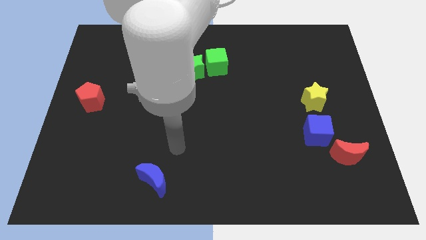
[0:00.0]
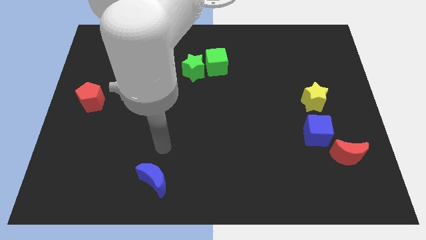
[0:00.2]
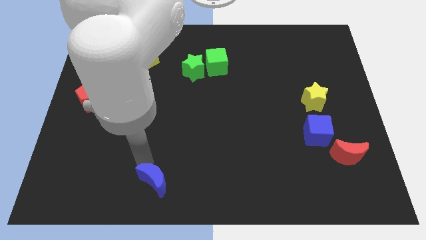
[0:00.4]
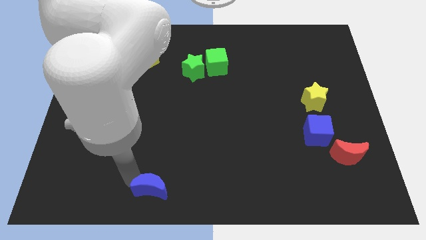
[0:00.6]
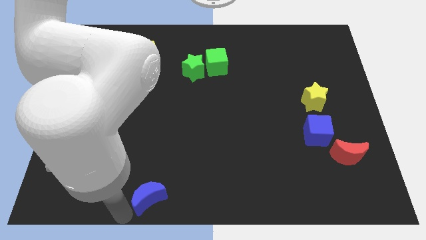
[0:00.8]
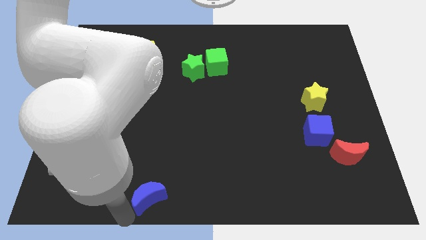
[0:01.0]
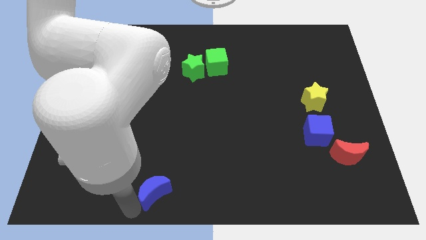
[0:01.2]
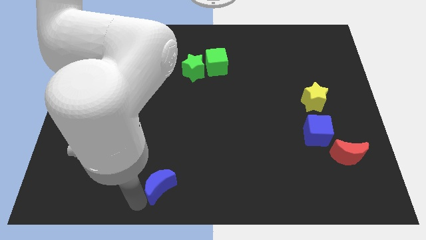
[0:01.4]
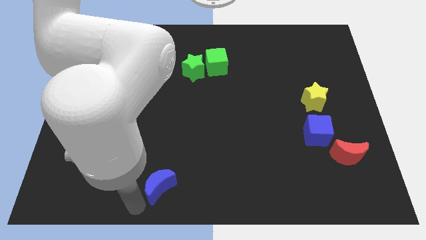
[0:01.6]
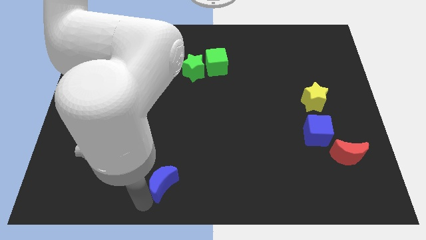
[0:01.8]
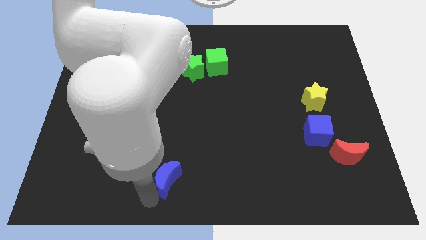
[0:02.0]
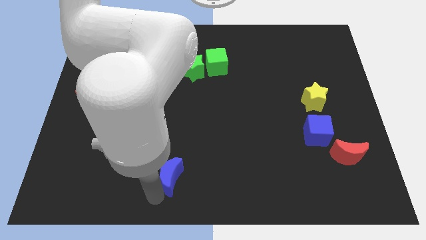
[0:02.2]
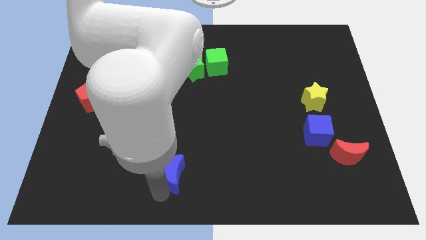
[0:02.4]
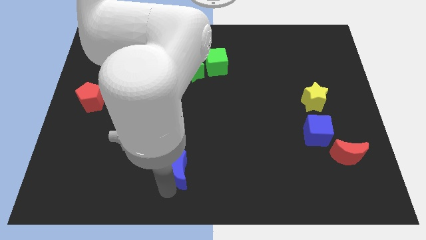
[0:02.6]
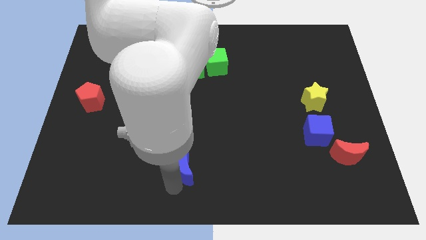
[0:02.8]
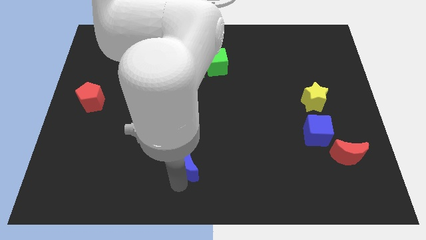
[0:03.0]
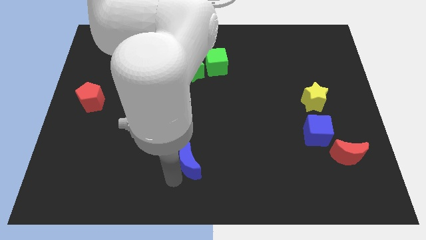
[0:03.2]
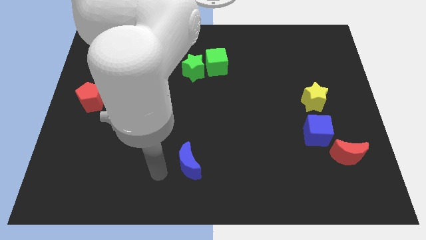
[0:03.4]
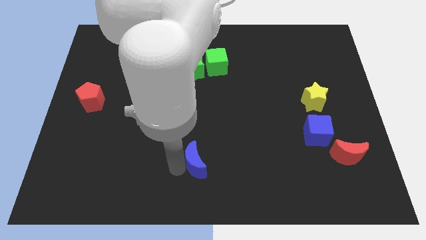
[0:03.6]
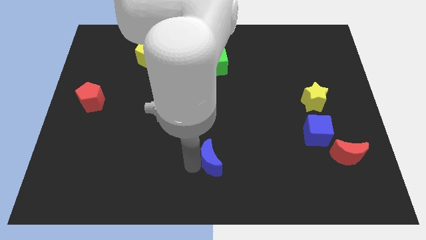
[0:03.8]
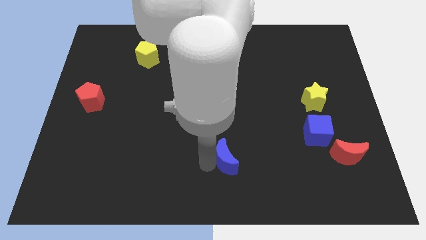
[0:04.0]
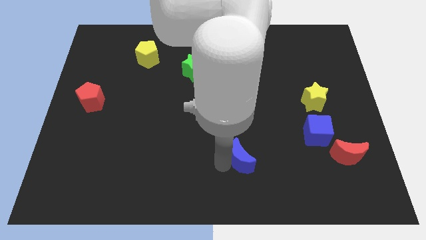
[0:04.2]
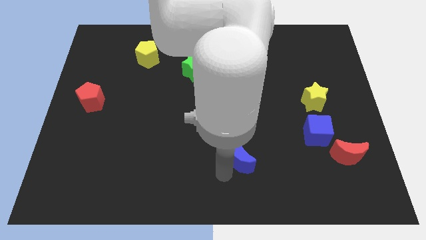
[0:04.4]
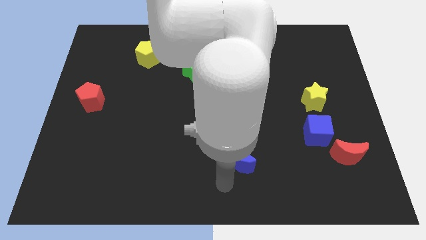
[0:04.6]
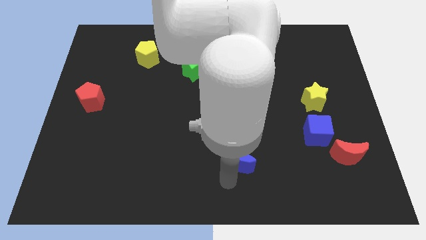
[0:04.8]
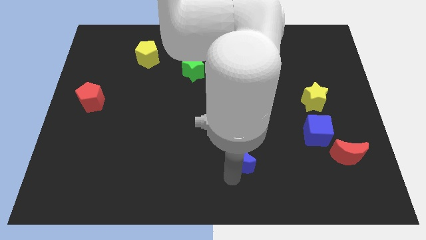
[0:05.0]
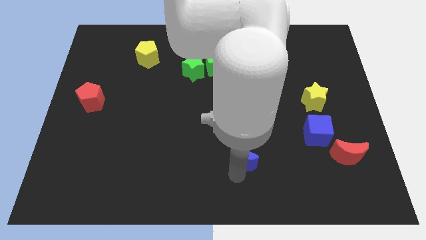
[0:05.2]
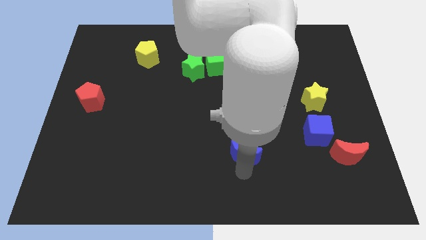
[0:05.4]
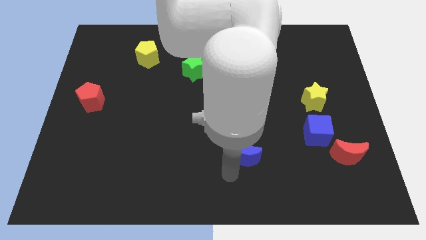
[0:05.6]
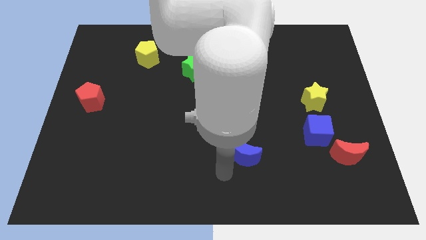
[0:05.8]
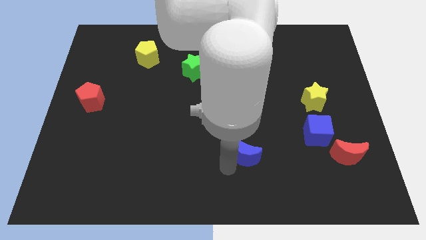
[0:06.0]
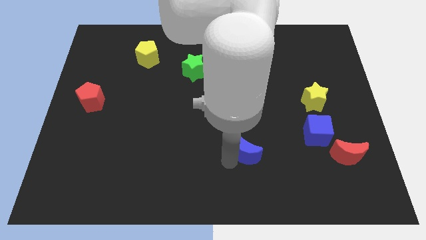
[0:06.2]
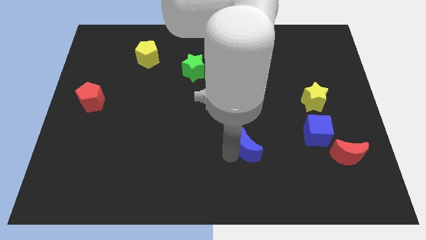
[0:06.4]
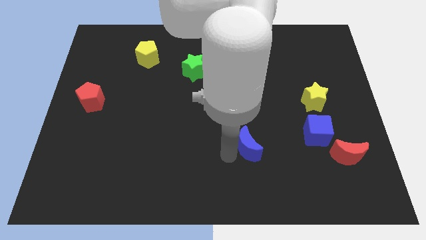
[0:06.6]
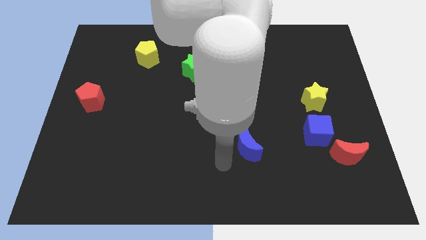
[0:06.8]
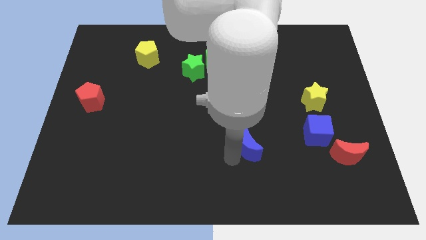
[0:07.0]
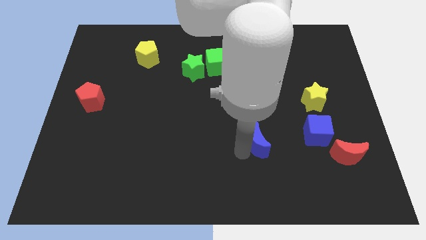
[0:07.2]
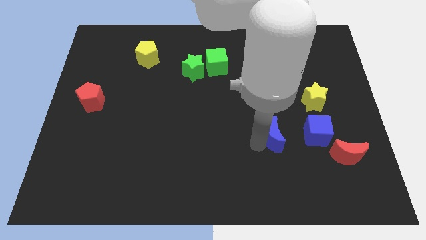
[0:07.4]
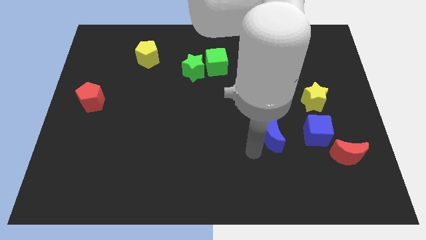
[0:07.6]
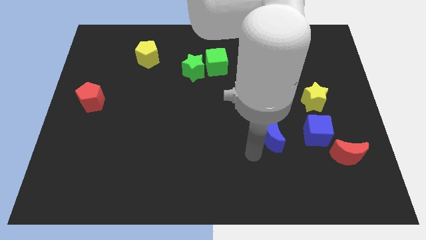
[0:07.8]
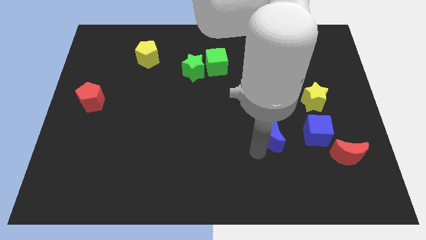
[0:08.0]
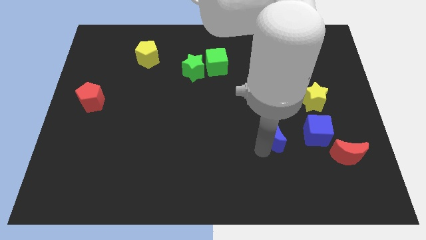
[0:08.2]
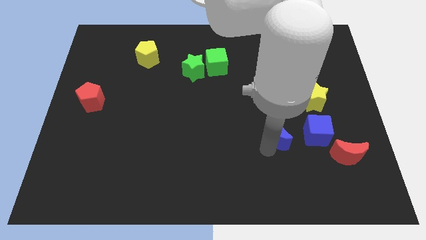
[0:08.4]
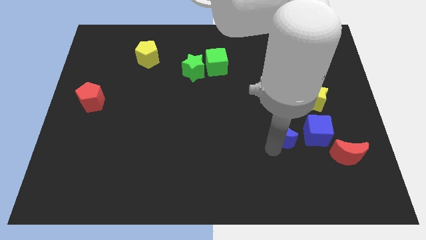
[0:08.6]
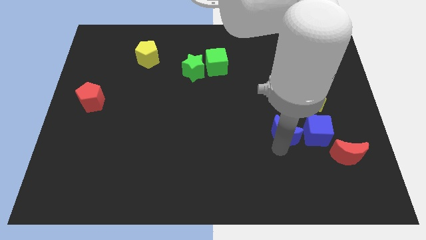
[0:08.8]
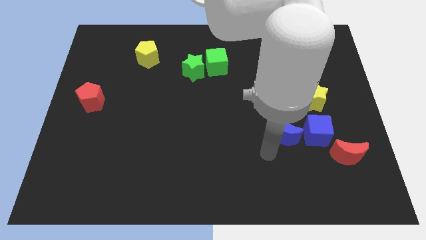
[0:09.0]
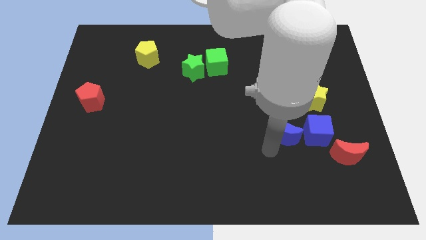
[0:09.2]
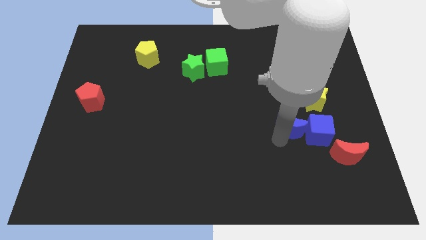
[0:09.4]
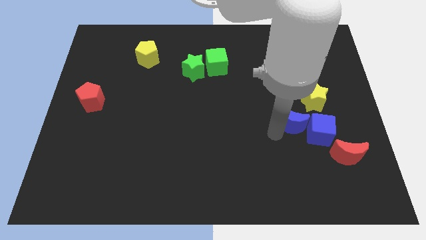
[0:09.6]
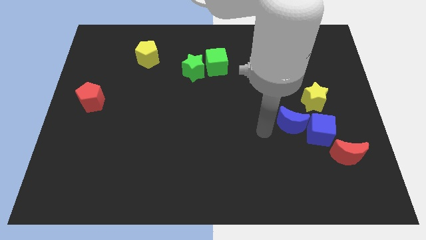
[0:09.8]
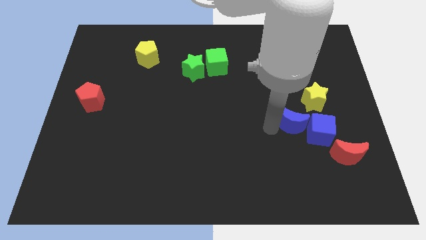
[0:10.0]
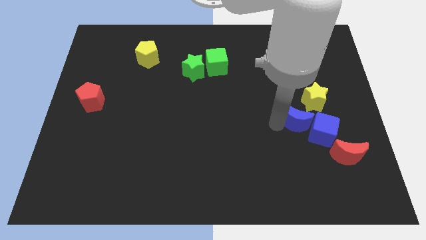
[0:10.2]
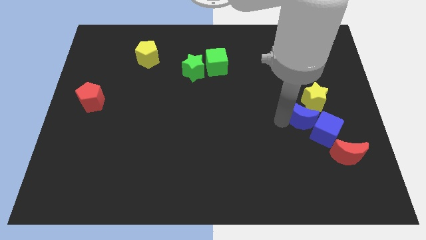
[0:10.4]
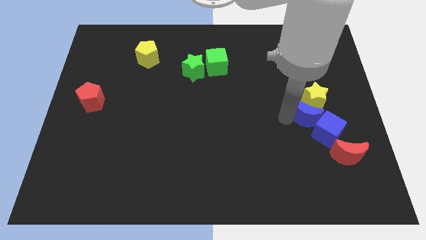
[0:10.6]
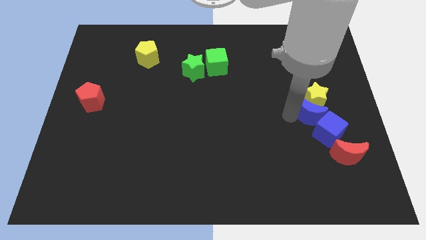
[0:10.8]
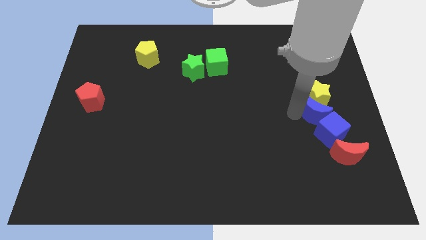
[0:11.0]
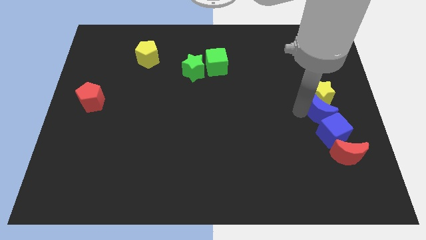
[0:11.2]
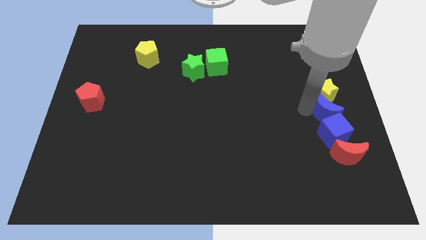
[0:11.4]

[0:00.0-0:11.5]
slide the blue moon to the center right

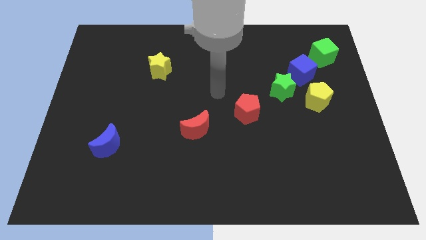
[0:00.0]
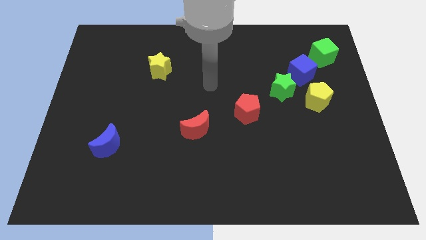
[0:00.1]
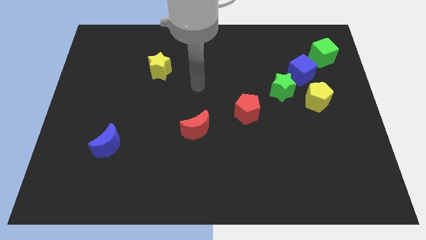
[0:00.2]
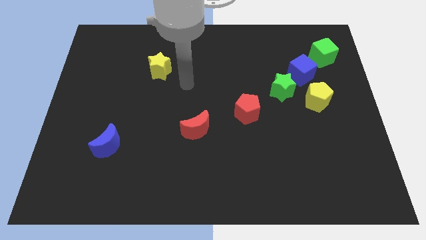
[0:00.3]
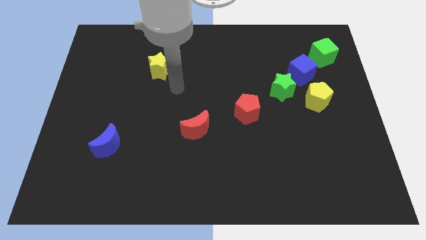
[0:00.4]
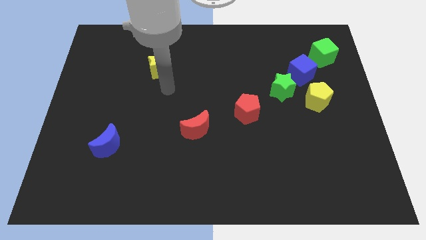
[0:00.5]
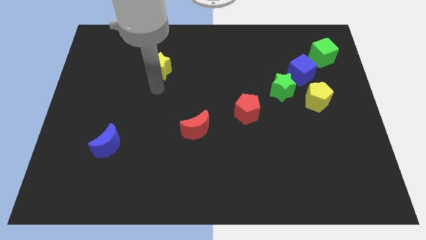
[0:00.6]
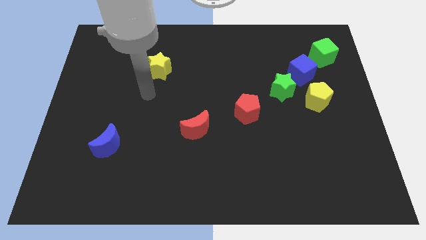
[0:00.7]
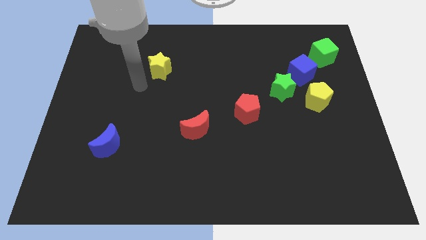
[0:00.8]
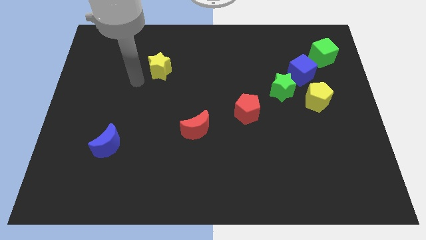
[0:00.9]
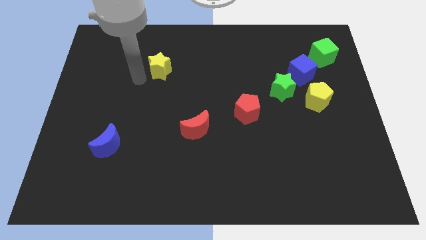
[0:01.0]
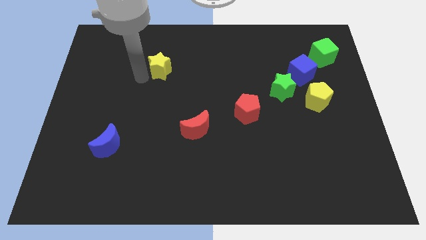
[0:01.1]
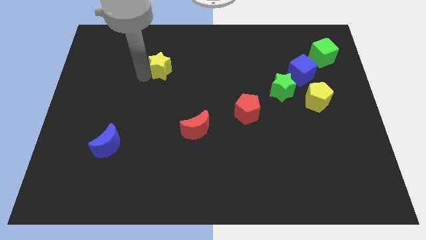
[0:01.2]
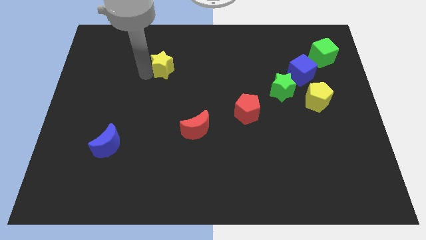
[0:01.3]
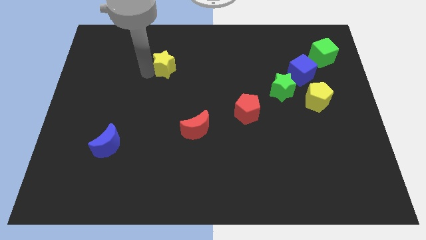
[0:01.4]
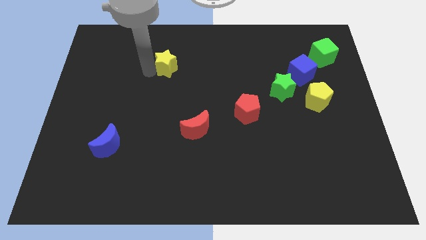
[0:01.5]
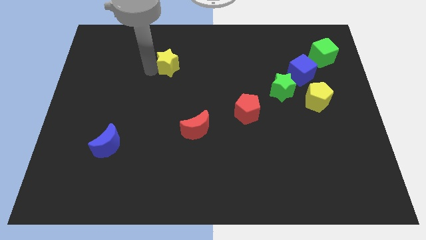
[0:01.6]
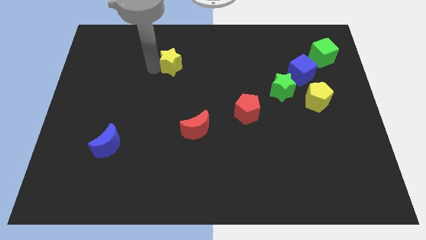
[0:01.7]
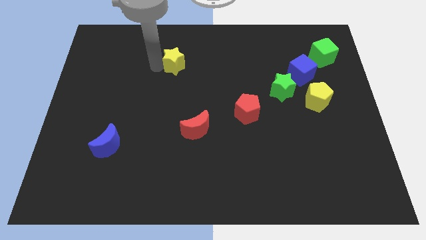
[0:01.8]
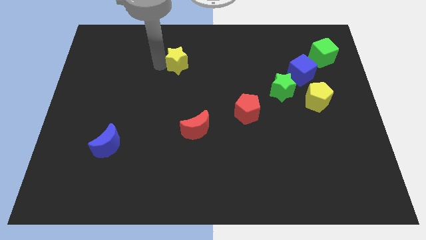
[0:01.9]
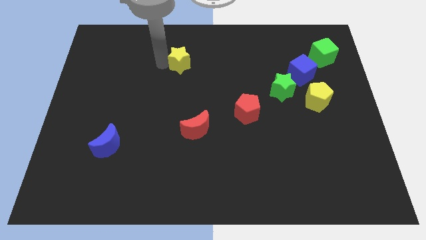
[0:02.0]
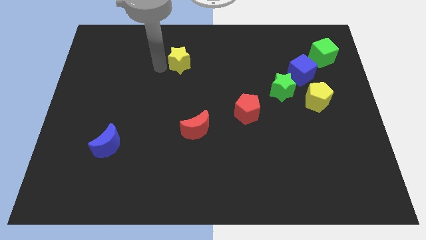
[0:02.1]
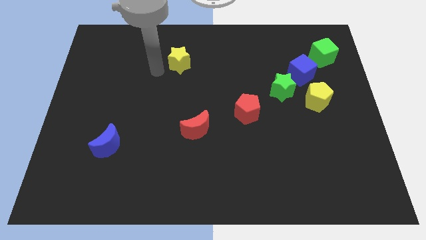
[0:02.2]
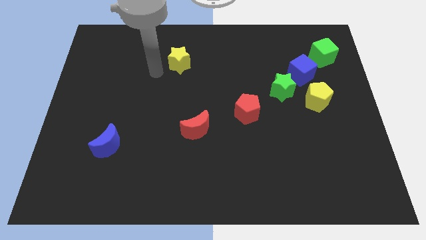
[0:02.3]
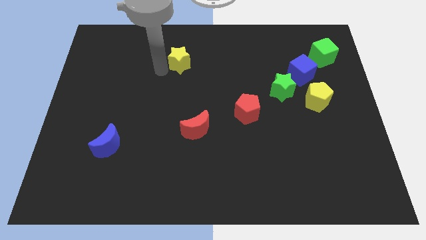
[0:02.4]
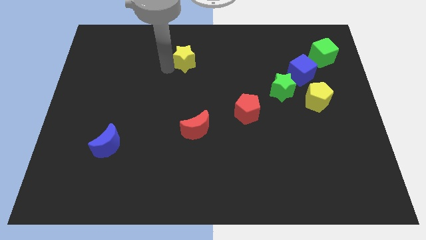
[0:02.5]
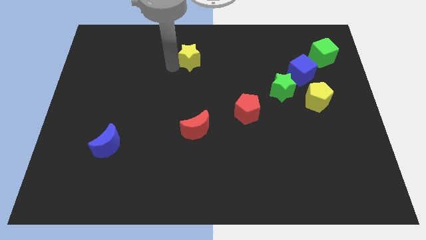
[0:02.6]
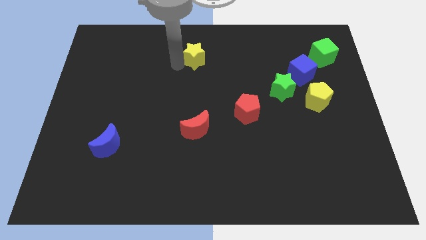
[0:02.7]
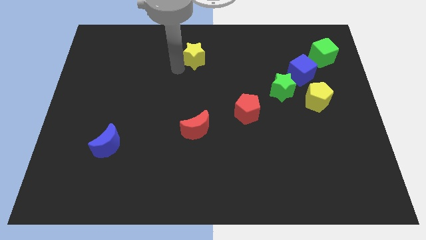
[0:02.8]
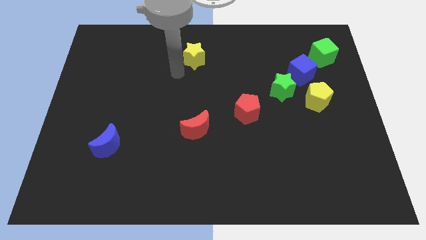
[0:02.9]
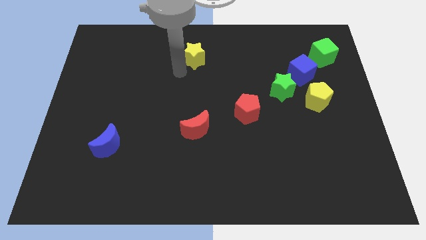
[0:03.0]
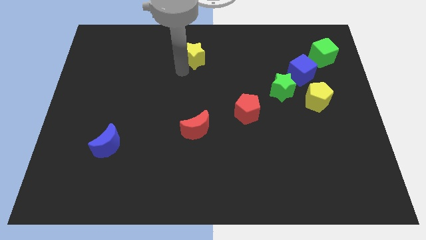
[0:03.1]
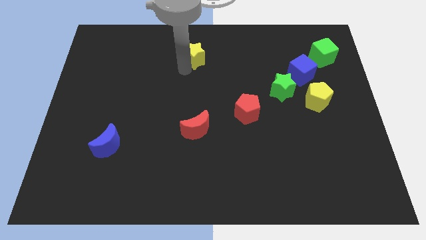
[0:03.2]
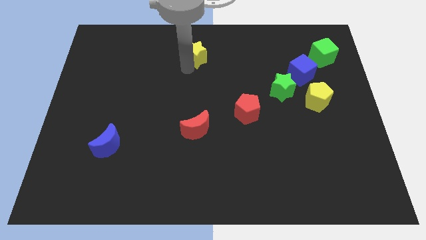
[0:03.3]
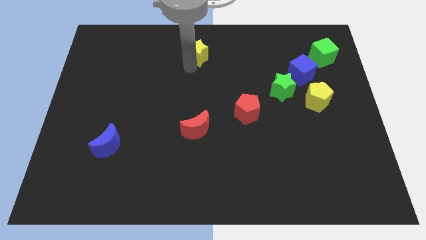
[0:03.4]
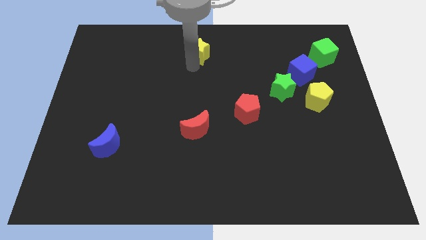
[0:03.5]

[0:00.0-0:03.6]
put the yellow star to the top
